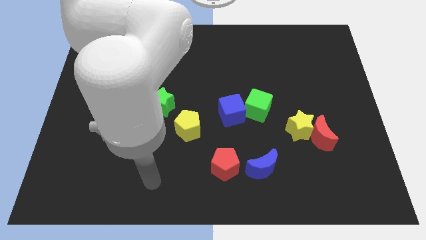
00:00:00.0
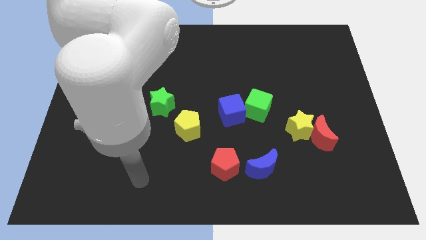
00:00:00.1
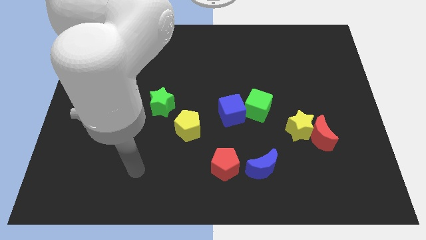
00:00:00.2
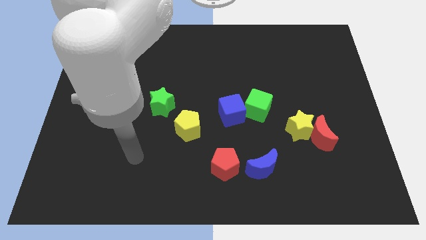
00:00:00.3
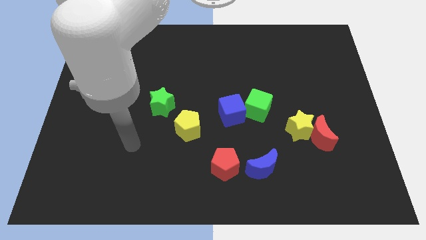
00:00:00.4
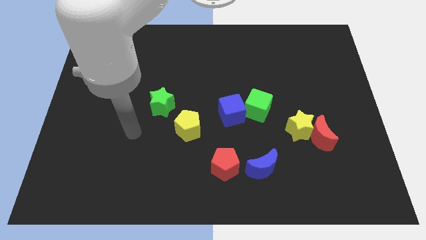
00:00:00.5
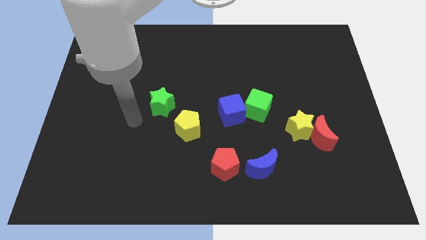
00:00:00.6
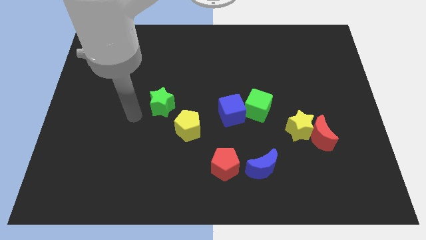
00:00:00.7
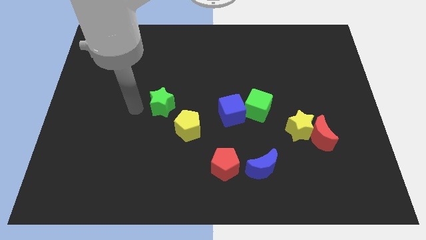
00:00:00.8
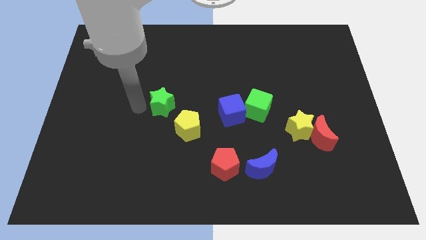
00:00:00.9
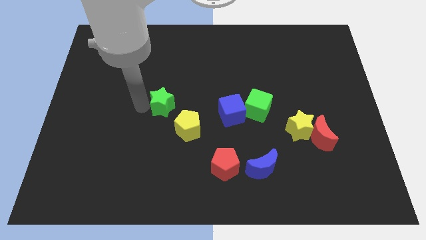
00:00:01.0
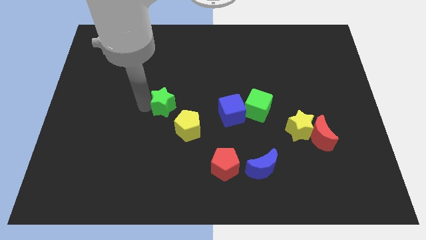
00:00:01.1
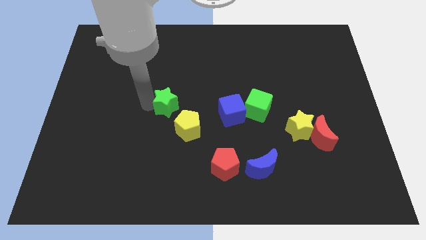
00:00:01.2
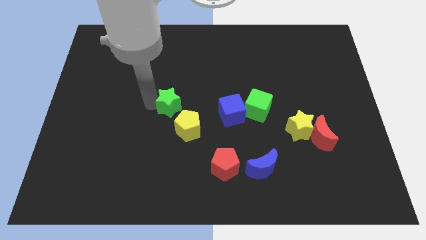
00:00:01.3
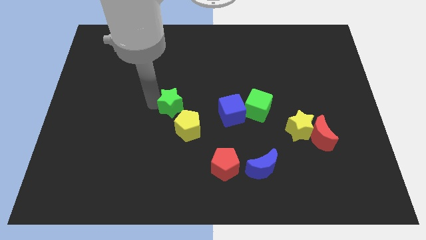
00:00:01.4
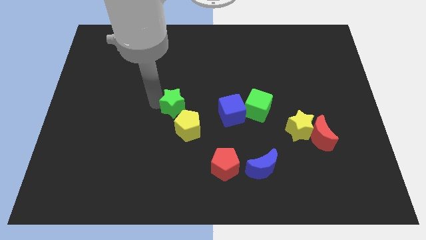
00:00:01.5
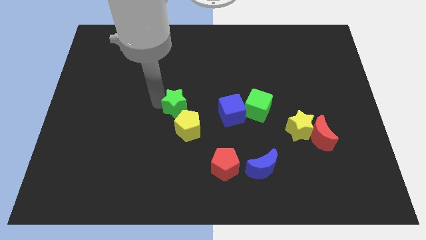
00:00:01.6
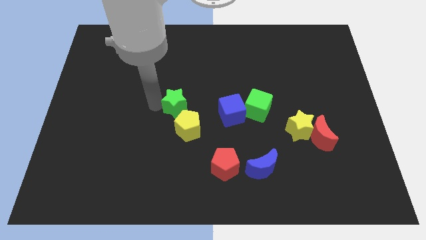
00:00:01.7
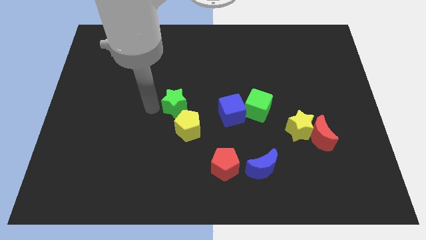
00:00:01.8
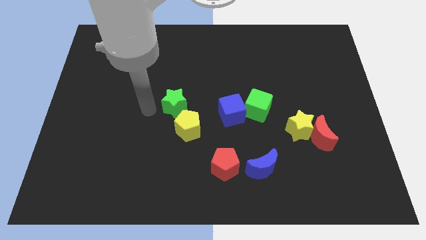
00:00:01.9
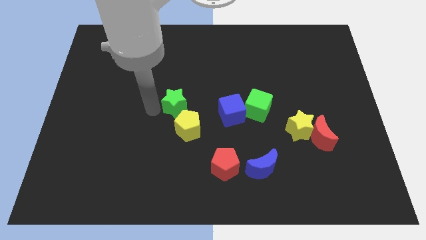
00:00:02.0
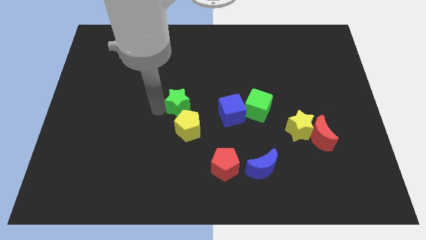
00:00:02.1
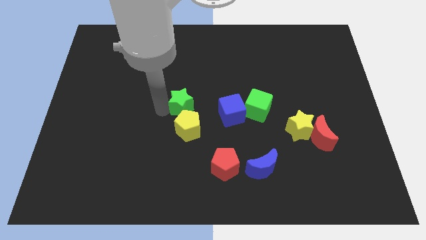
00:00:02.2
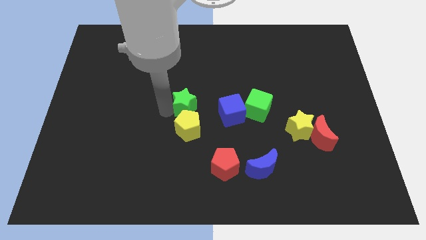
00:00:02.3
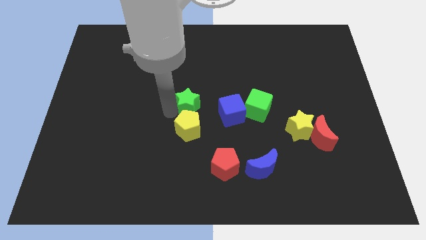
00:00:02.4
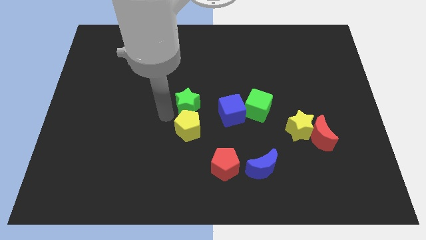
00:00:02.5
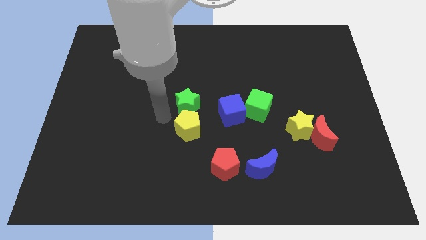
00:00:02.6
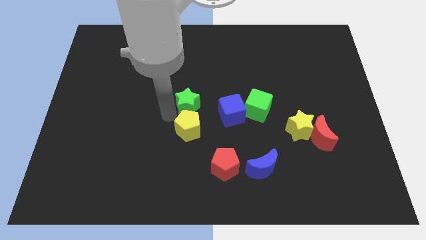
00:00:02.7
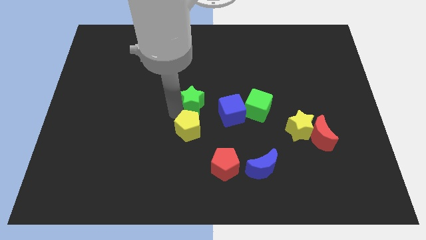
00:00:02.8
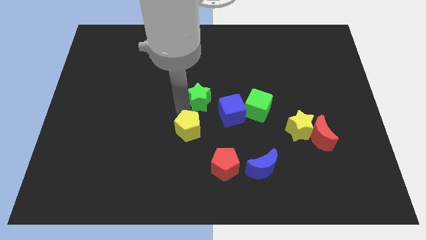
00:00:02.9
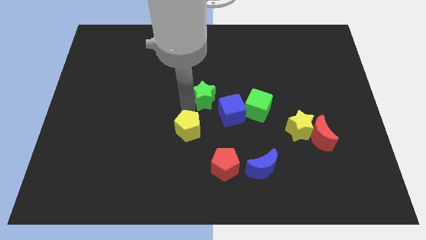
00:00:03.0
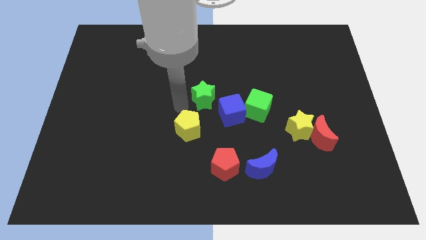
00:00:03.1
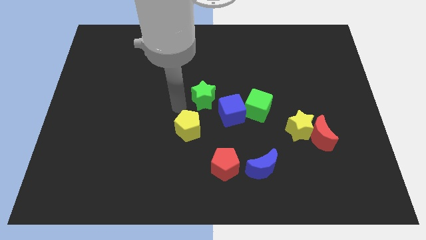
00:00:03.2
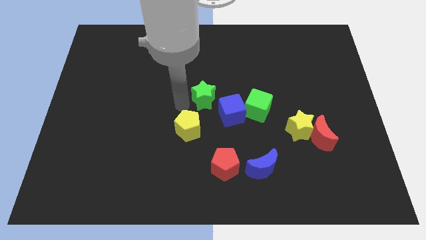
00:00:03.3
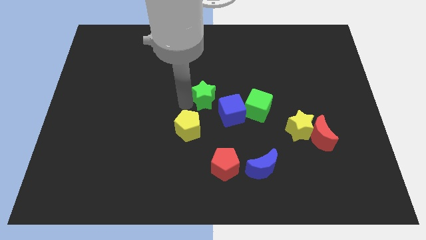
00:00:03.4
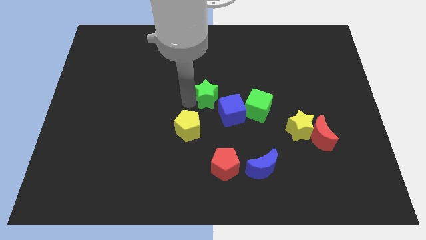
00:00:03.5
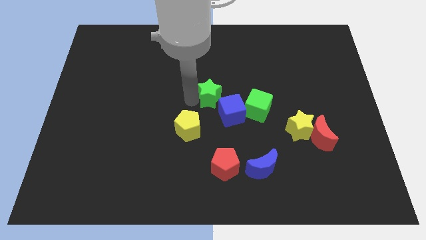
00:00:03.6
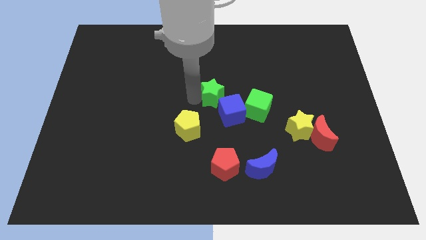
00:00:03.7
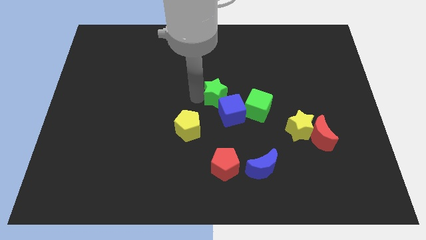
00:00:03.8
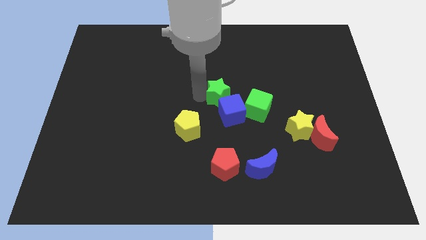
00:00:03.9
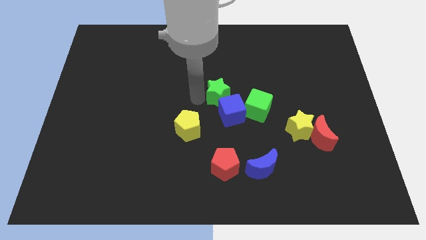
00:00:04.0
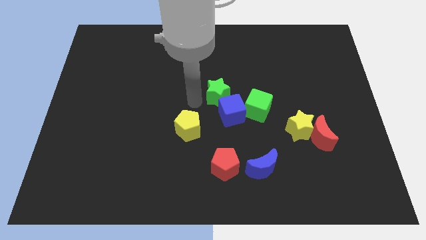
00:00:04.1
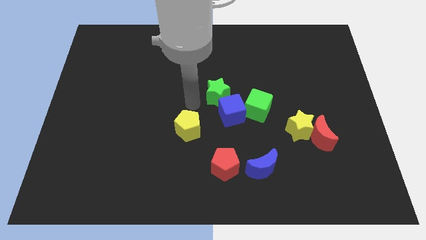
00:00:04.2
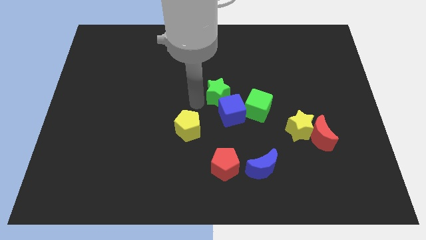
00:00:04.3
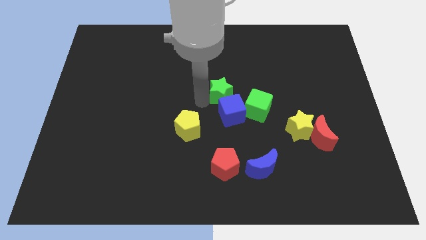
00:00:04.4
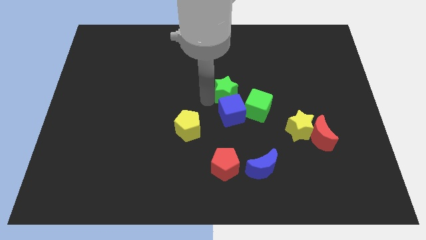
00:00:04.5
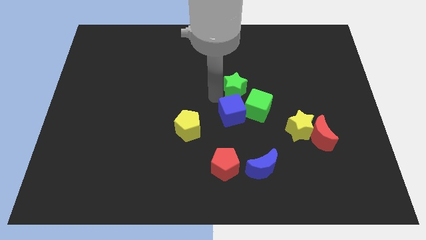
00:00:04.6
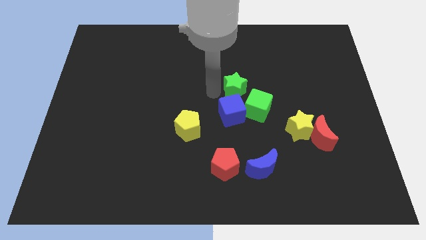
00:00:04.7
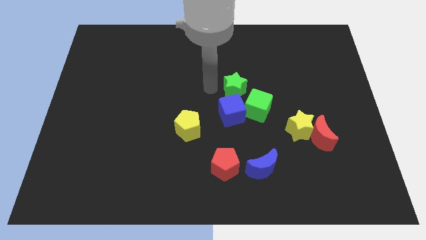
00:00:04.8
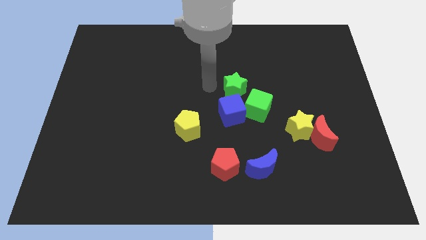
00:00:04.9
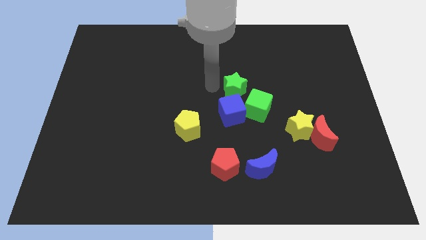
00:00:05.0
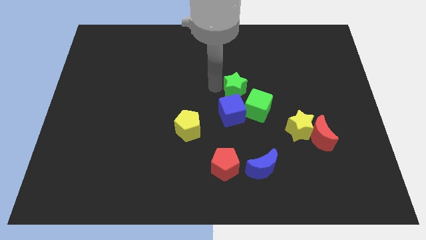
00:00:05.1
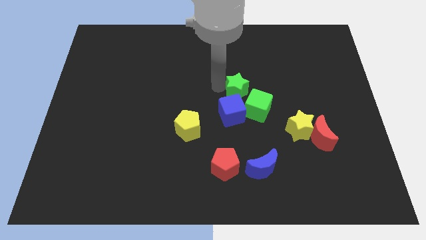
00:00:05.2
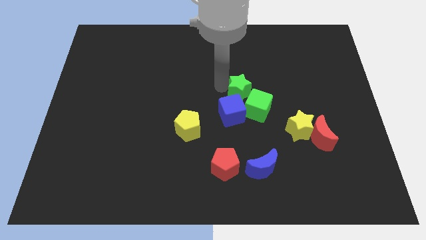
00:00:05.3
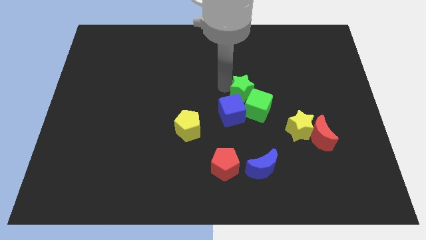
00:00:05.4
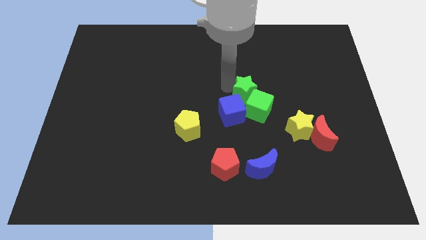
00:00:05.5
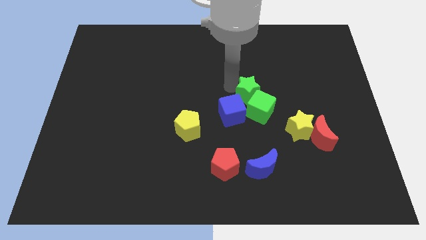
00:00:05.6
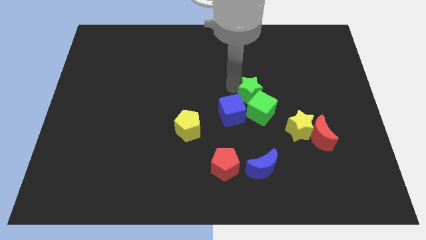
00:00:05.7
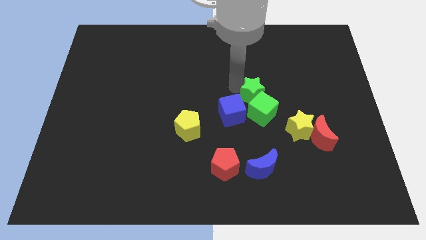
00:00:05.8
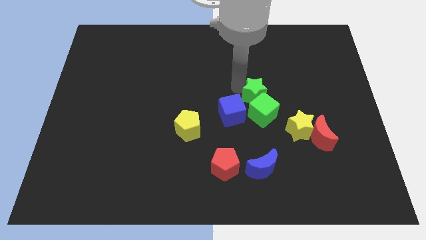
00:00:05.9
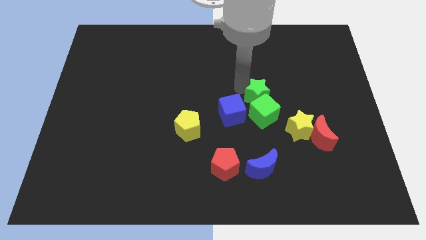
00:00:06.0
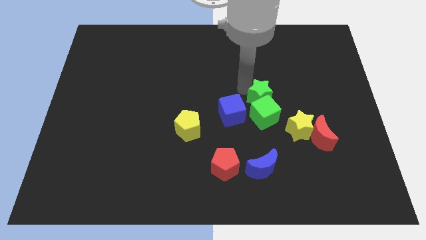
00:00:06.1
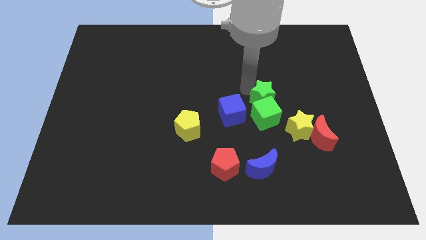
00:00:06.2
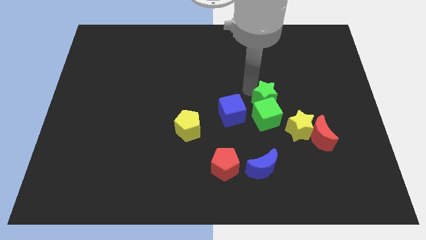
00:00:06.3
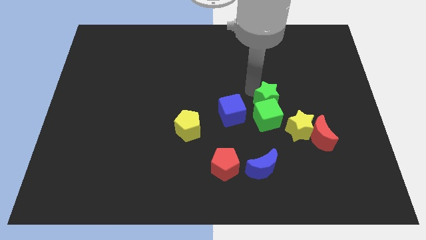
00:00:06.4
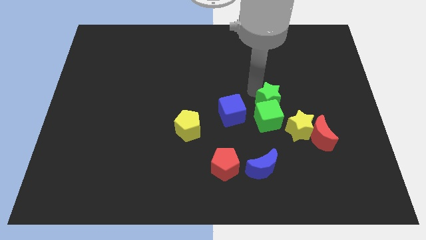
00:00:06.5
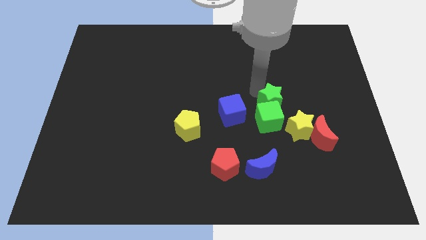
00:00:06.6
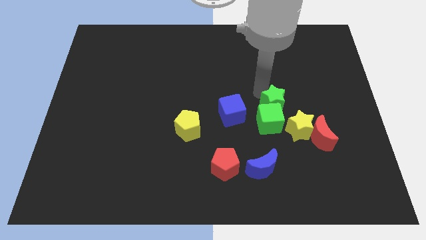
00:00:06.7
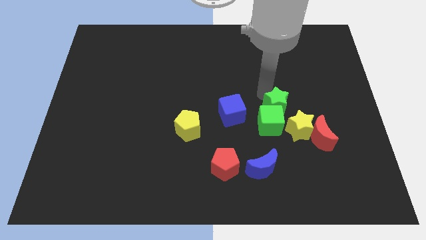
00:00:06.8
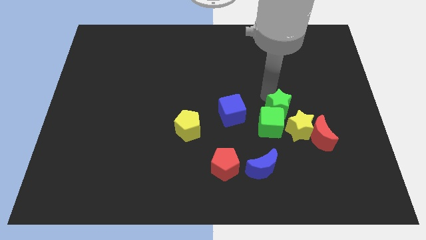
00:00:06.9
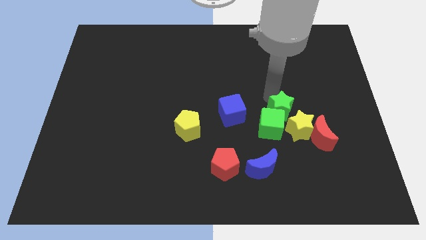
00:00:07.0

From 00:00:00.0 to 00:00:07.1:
put the green star towards the yellow star
